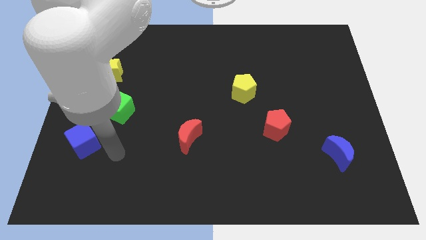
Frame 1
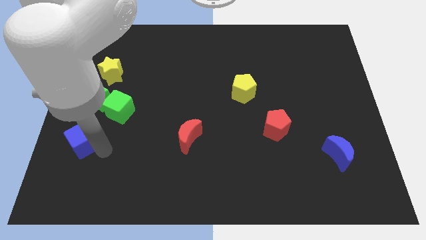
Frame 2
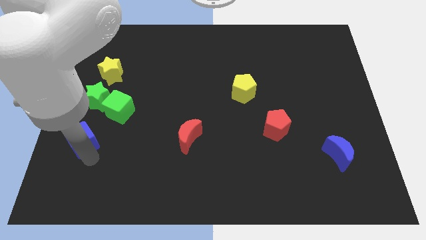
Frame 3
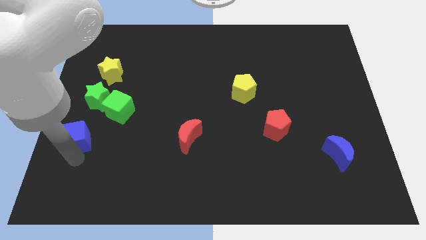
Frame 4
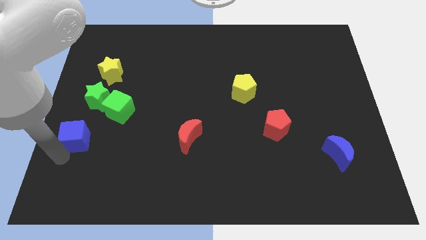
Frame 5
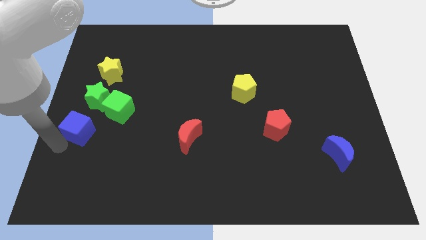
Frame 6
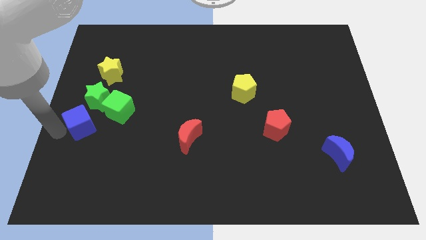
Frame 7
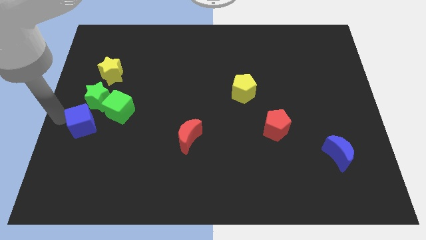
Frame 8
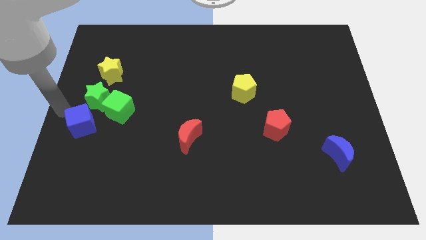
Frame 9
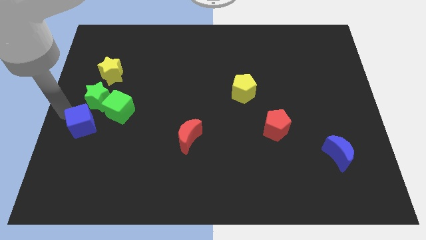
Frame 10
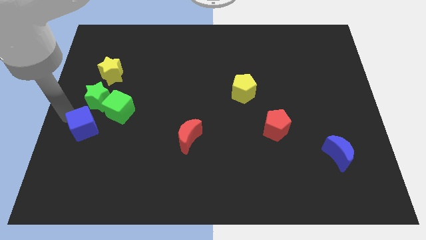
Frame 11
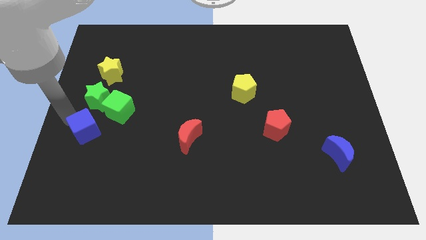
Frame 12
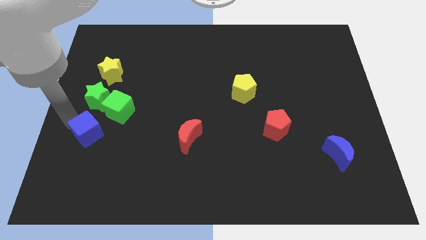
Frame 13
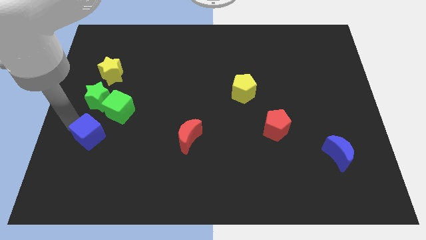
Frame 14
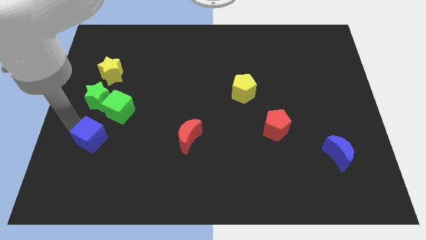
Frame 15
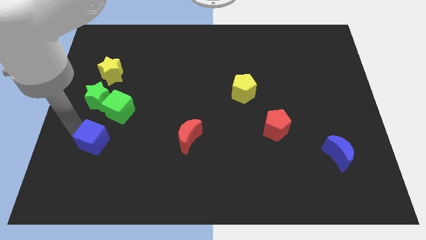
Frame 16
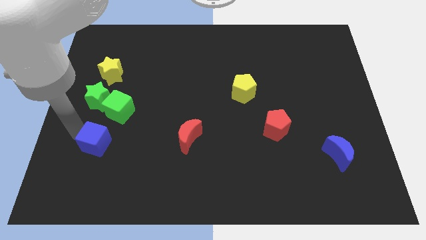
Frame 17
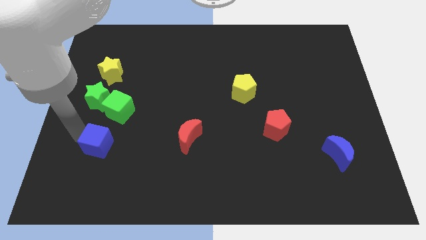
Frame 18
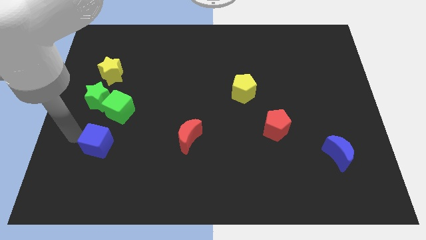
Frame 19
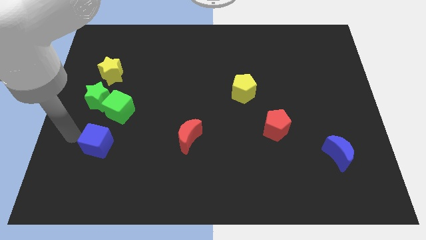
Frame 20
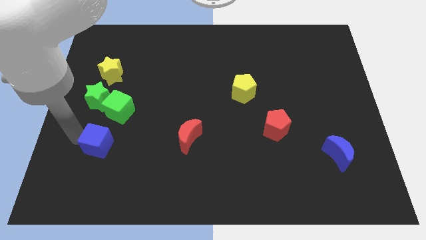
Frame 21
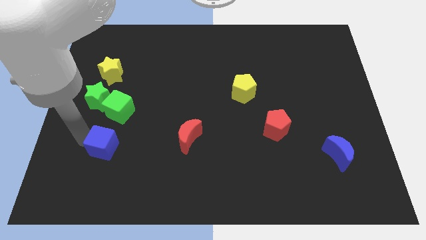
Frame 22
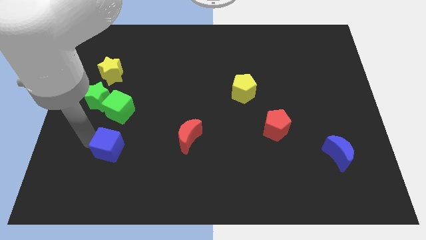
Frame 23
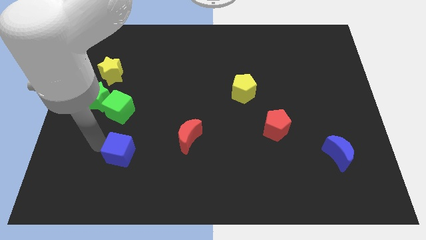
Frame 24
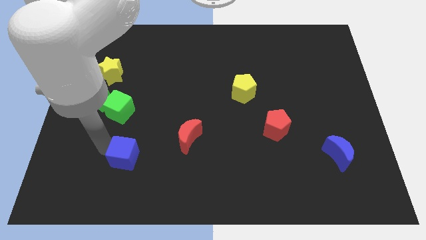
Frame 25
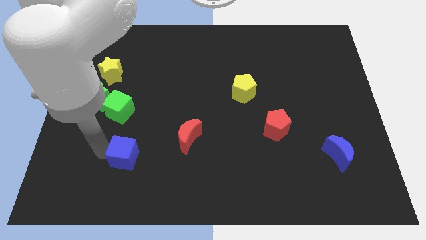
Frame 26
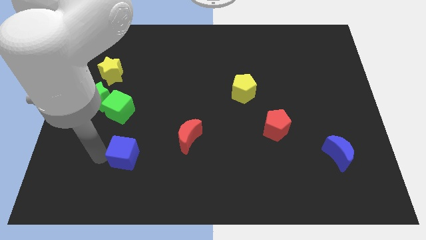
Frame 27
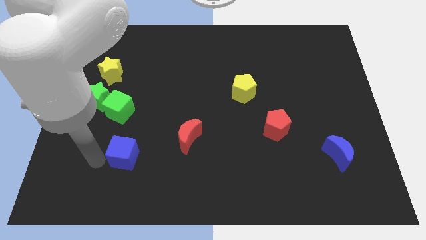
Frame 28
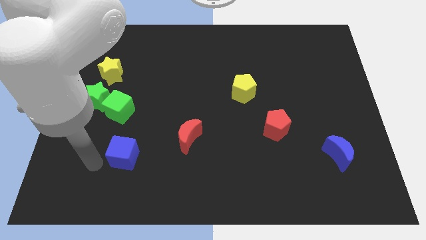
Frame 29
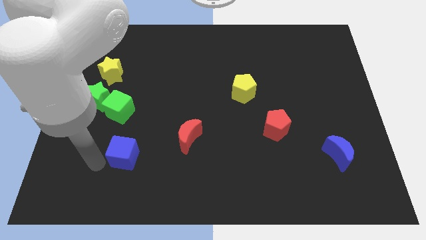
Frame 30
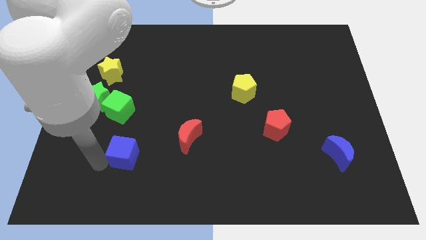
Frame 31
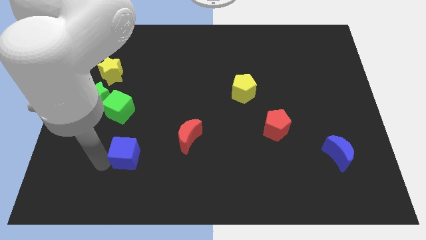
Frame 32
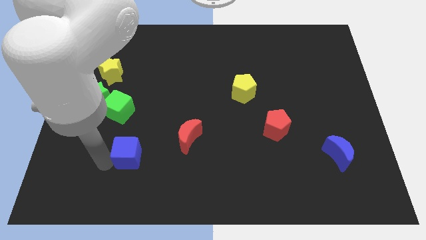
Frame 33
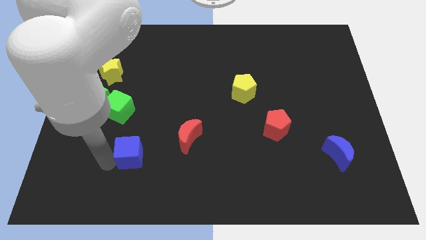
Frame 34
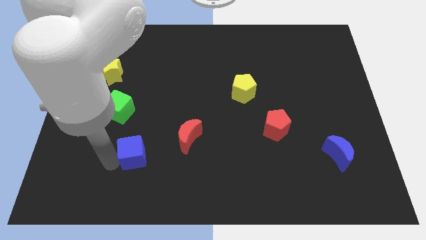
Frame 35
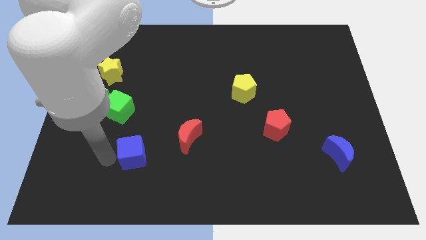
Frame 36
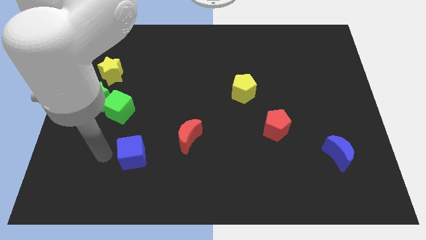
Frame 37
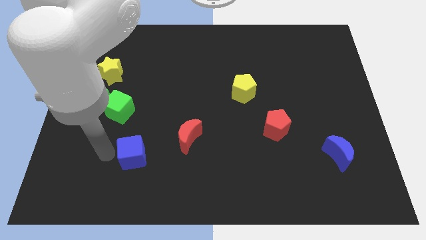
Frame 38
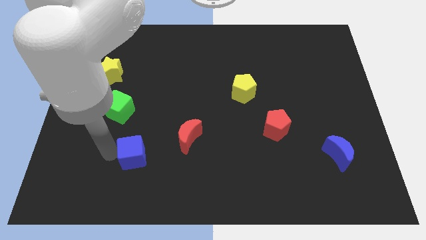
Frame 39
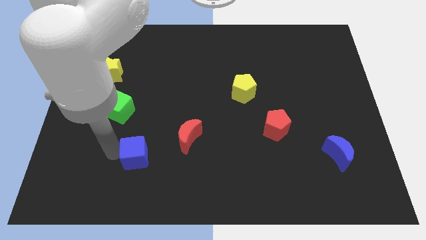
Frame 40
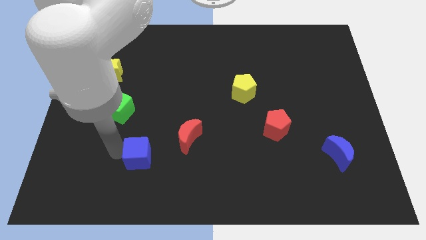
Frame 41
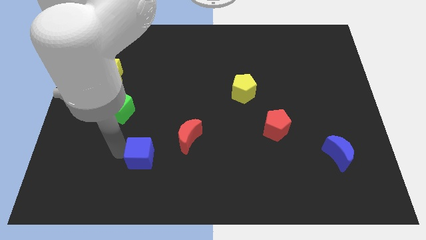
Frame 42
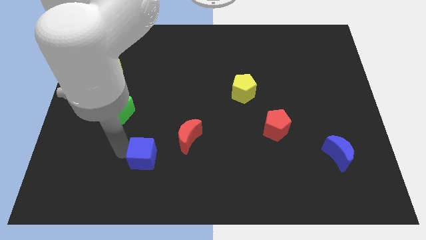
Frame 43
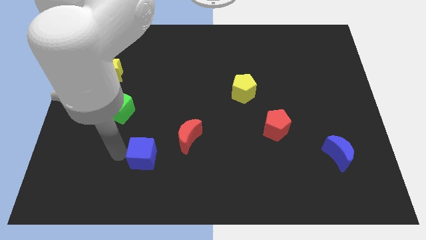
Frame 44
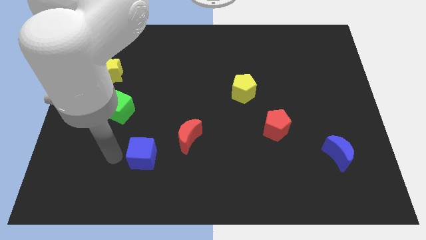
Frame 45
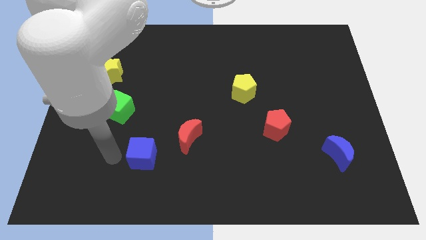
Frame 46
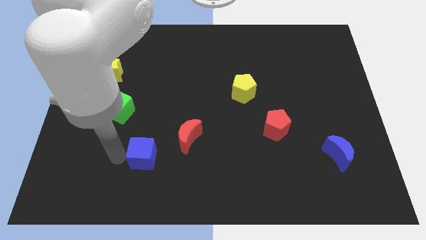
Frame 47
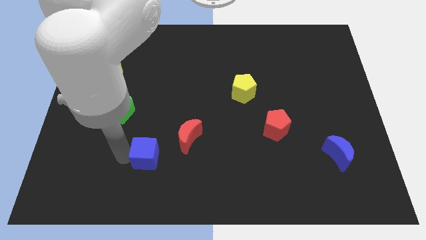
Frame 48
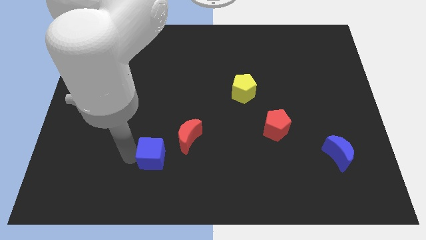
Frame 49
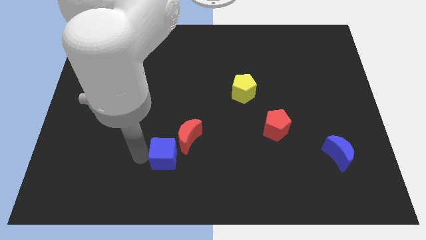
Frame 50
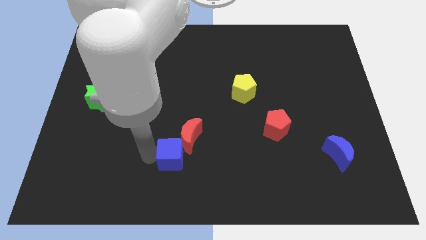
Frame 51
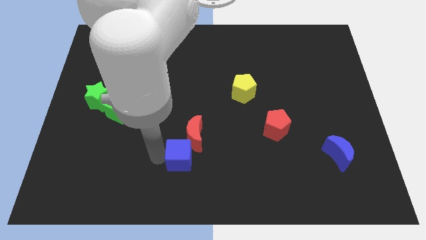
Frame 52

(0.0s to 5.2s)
push the blue cube right

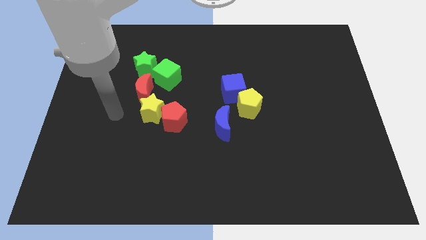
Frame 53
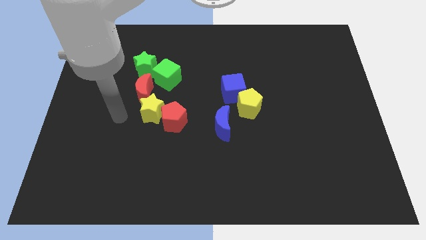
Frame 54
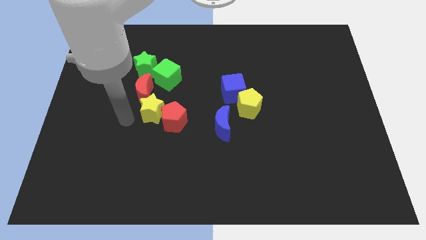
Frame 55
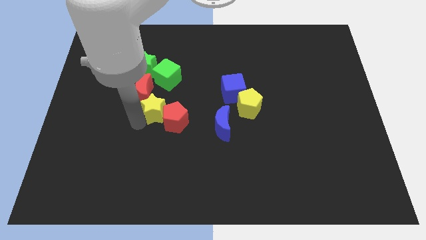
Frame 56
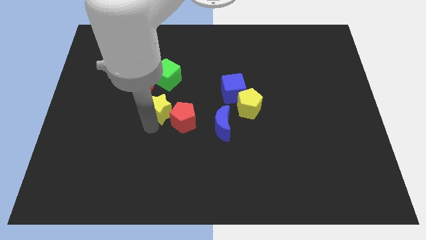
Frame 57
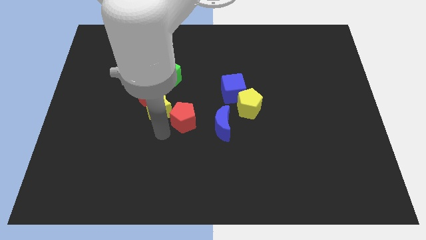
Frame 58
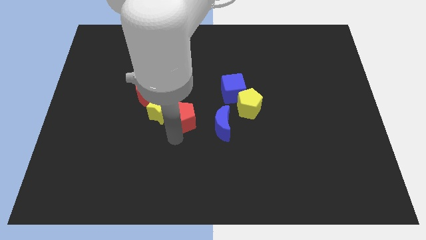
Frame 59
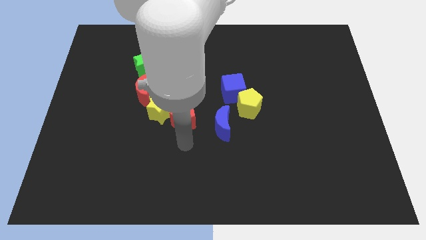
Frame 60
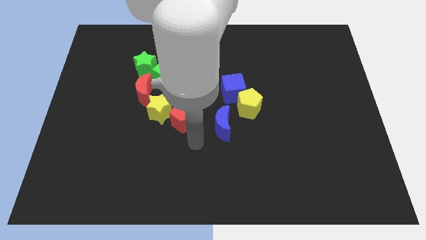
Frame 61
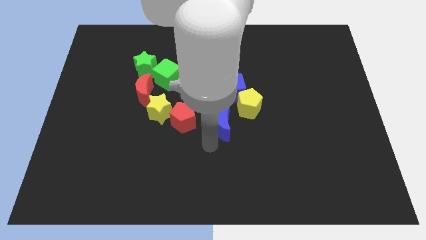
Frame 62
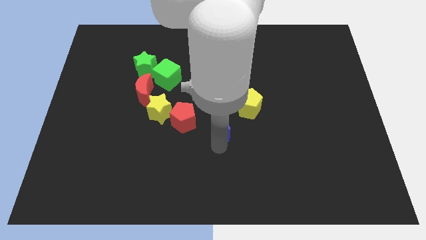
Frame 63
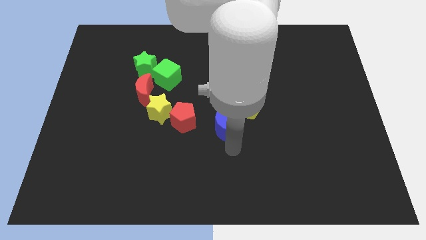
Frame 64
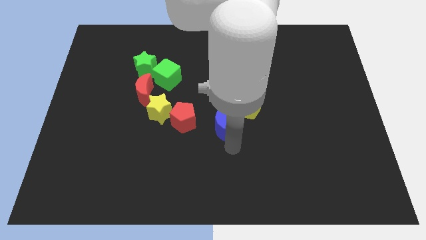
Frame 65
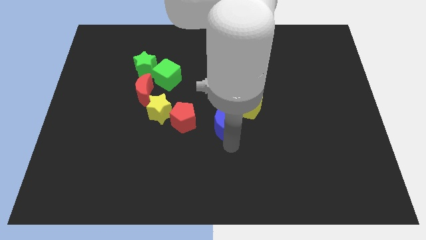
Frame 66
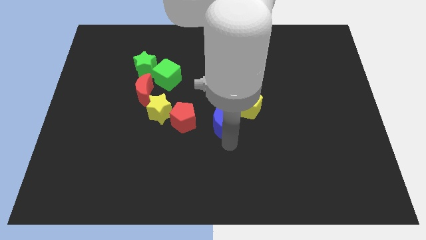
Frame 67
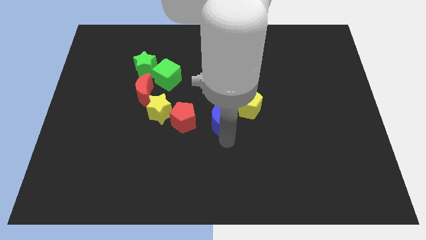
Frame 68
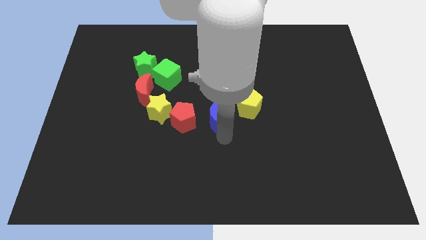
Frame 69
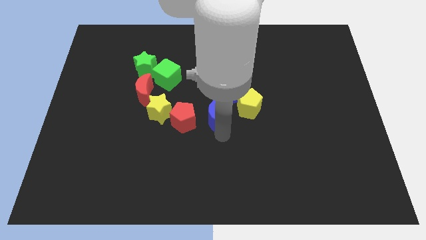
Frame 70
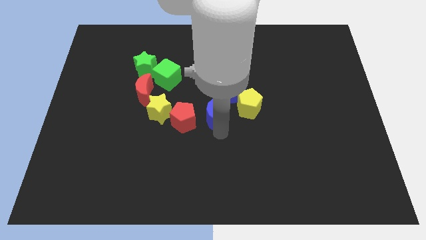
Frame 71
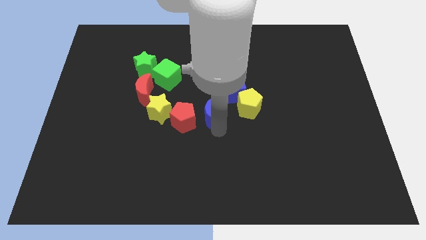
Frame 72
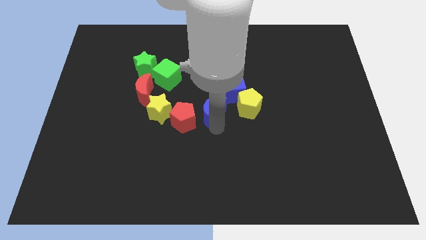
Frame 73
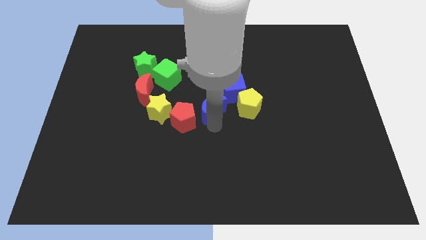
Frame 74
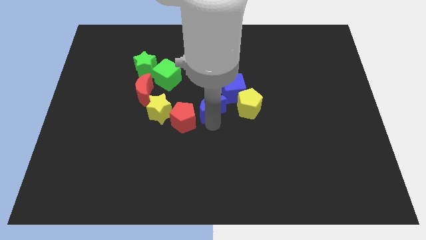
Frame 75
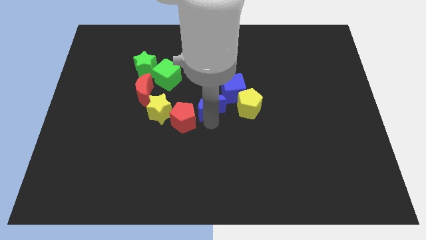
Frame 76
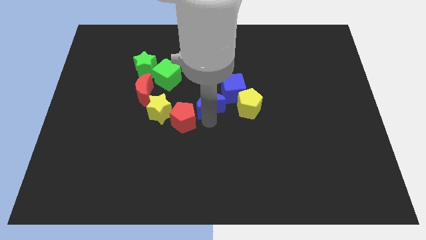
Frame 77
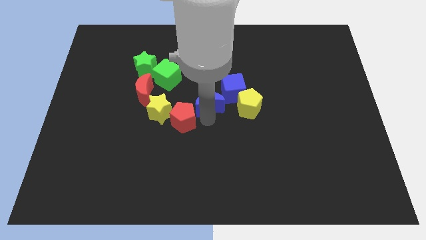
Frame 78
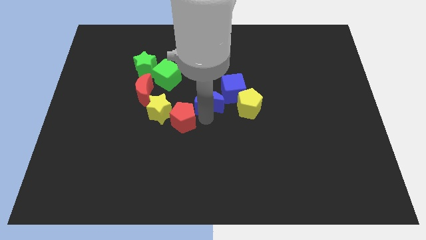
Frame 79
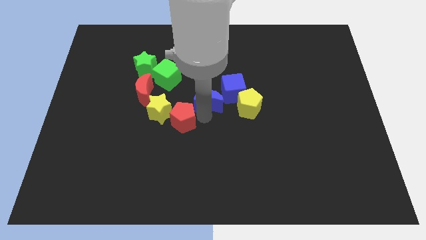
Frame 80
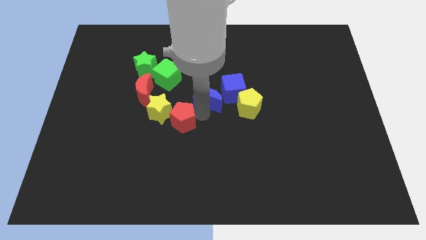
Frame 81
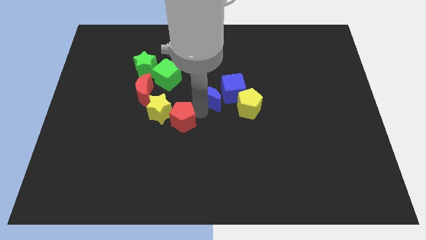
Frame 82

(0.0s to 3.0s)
slightly slide the blue moon upwards
